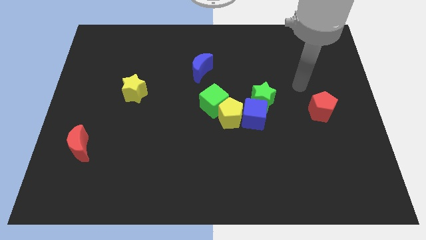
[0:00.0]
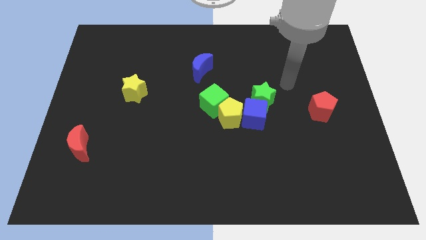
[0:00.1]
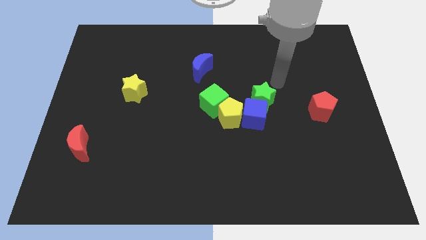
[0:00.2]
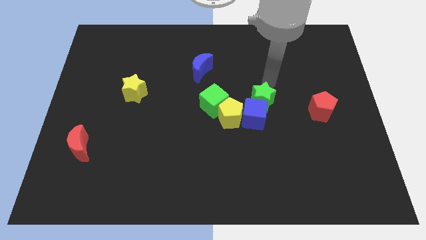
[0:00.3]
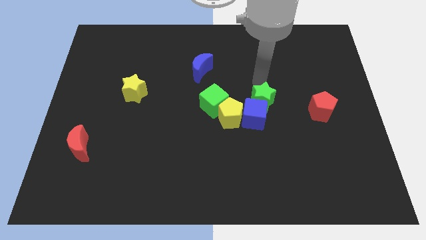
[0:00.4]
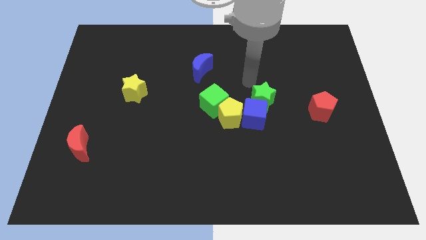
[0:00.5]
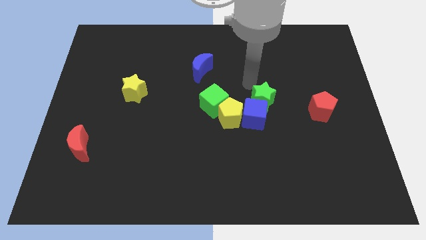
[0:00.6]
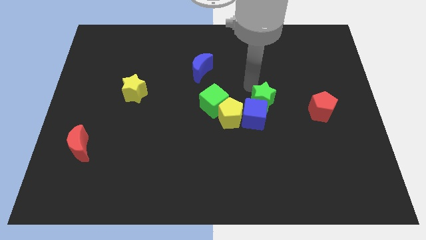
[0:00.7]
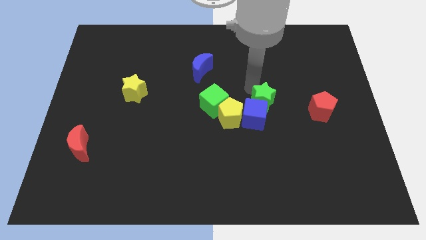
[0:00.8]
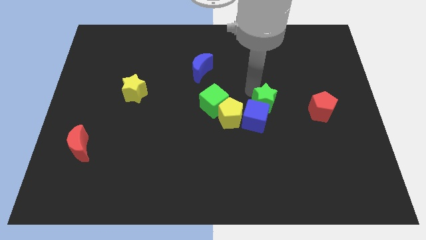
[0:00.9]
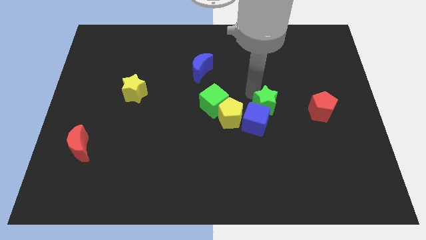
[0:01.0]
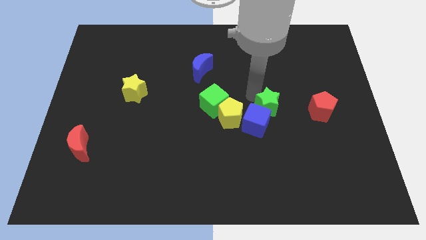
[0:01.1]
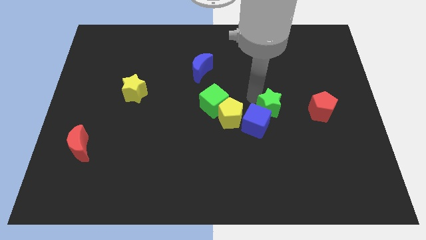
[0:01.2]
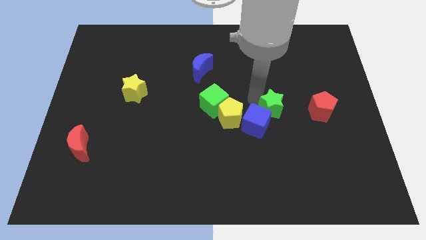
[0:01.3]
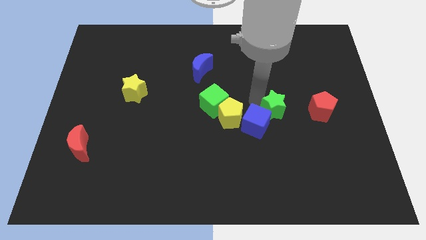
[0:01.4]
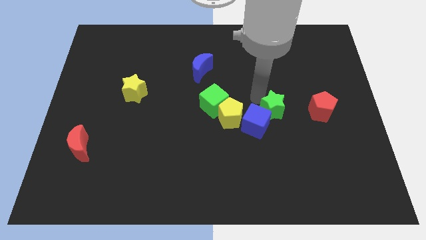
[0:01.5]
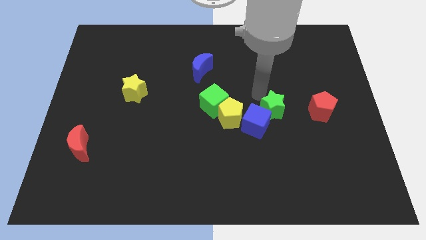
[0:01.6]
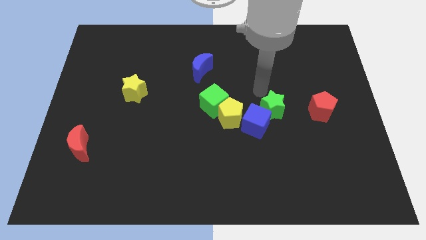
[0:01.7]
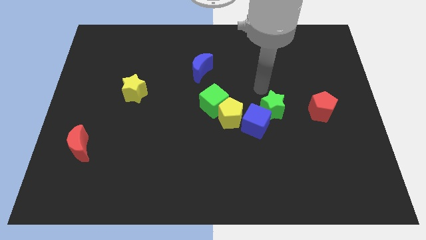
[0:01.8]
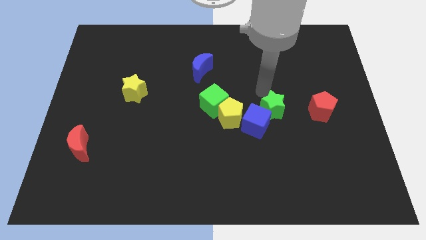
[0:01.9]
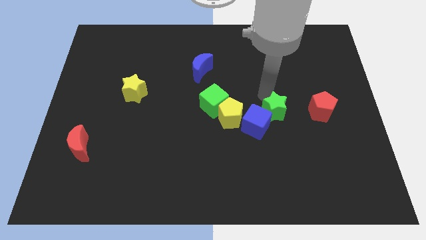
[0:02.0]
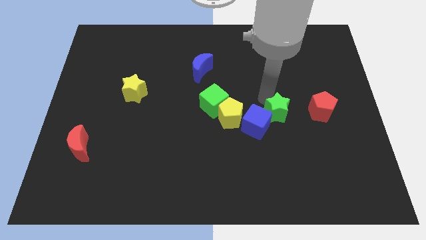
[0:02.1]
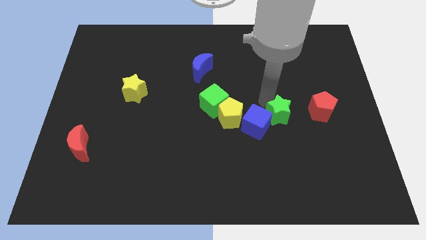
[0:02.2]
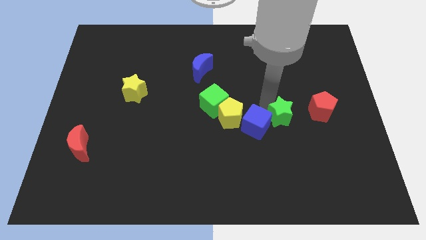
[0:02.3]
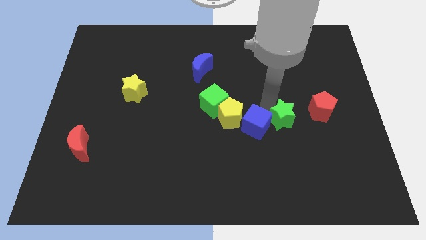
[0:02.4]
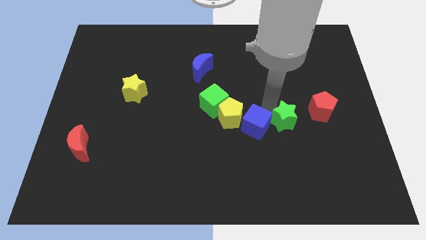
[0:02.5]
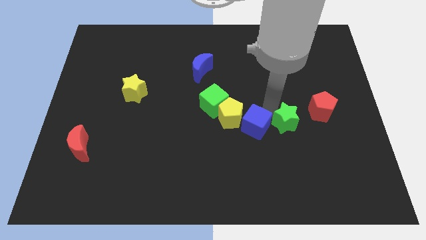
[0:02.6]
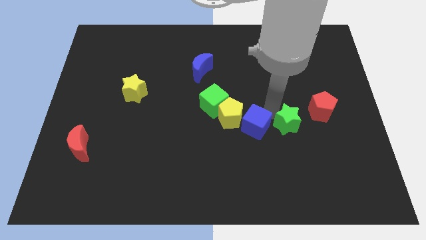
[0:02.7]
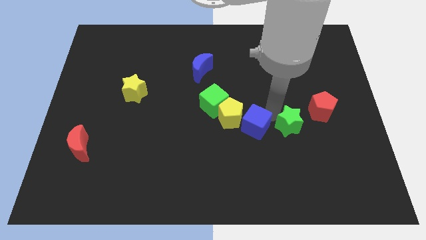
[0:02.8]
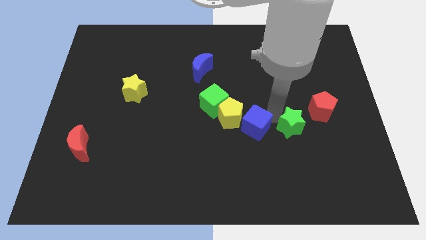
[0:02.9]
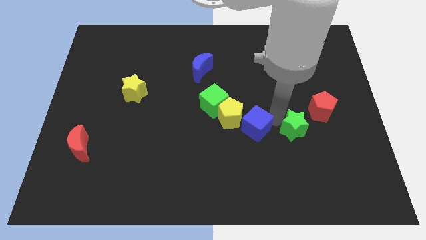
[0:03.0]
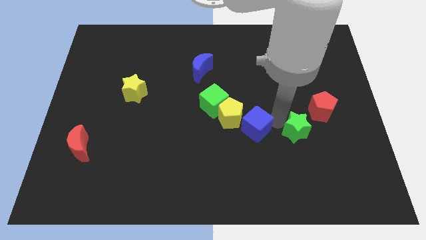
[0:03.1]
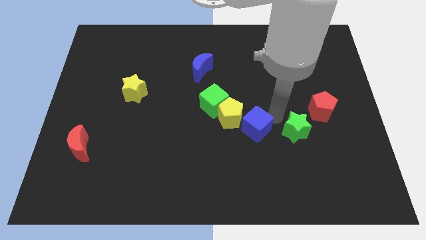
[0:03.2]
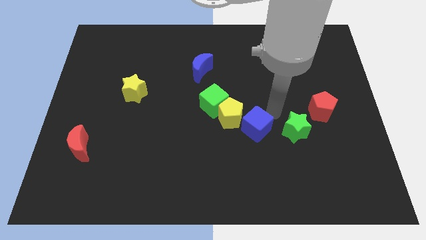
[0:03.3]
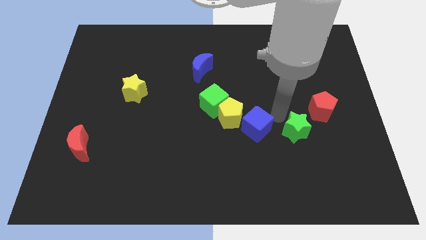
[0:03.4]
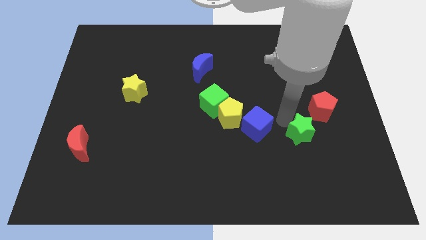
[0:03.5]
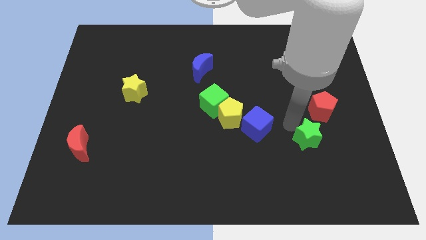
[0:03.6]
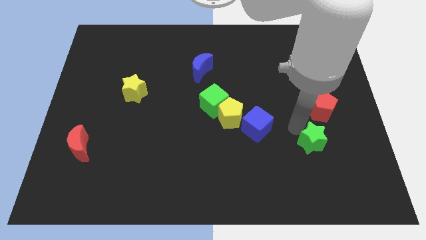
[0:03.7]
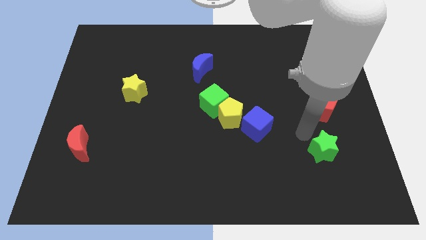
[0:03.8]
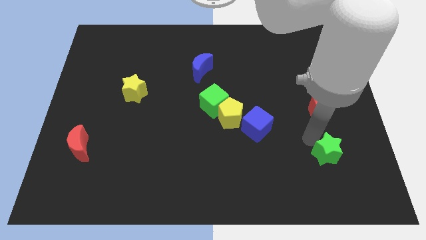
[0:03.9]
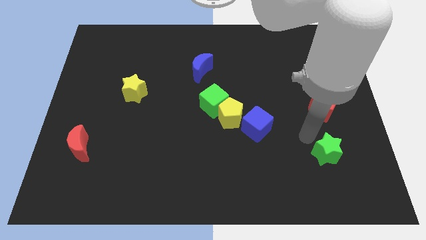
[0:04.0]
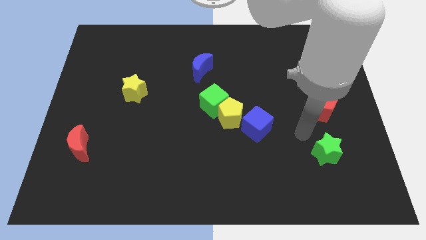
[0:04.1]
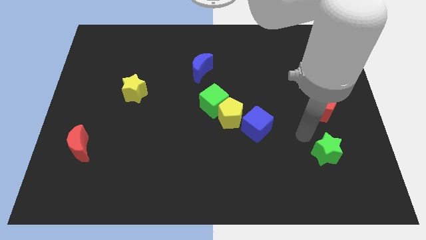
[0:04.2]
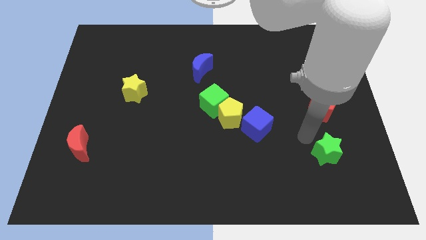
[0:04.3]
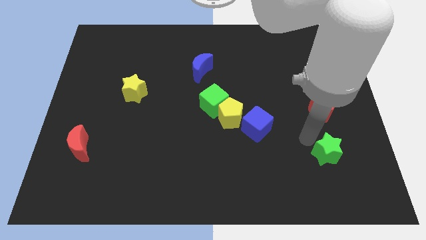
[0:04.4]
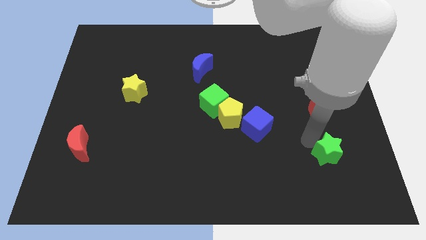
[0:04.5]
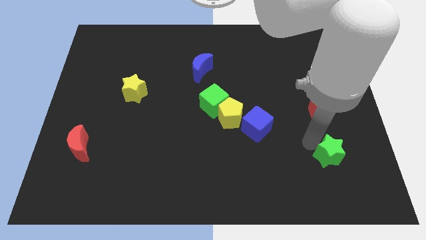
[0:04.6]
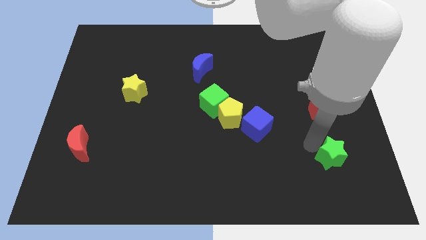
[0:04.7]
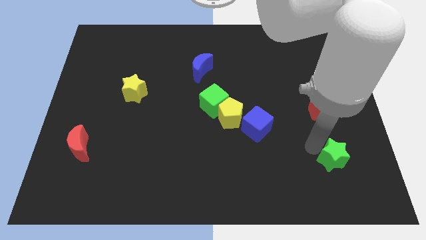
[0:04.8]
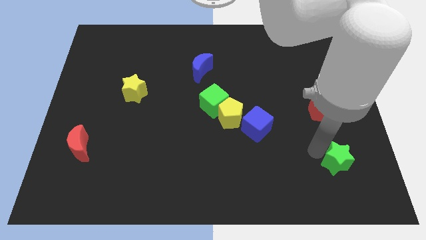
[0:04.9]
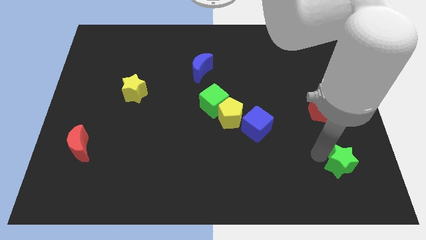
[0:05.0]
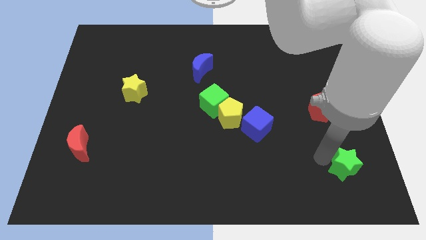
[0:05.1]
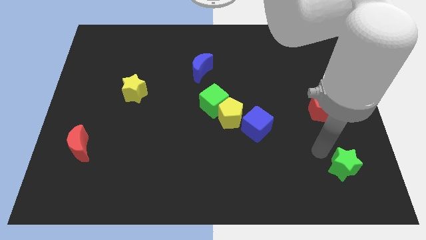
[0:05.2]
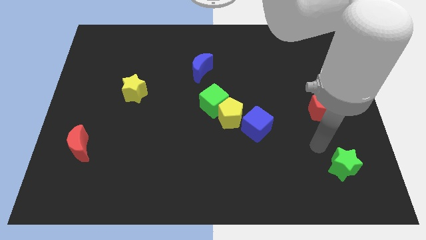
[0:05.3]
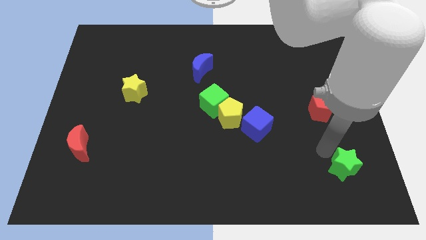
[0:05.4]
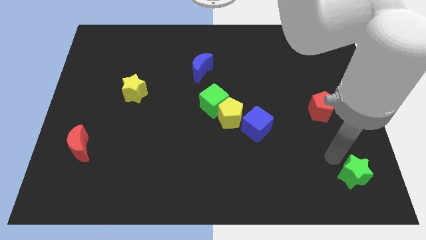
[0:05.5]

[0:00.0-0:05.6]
slide the green star to the lower right corner

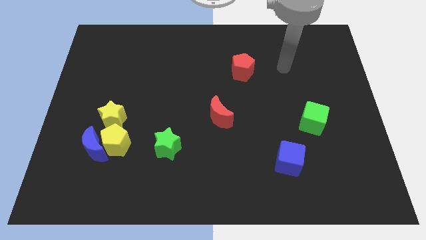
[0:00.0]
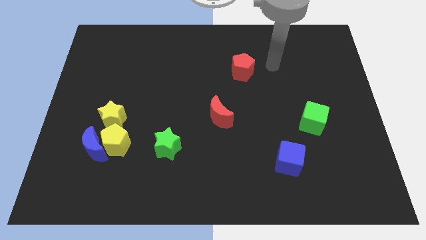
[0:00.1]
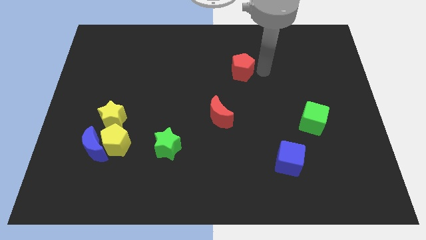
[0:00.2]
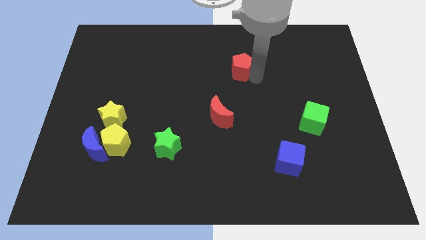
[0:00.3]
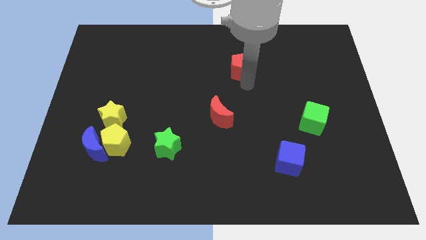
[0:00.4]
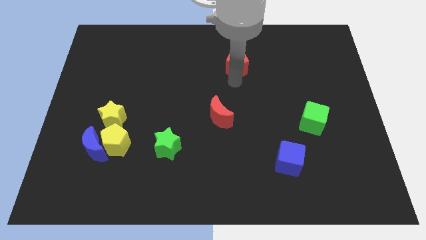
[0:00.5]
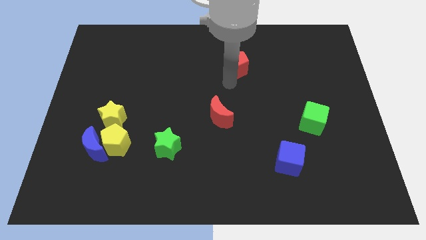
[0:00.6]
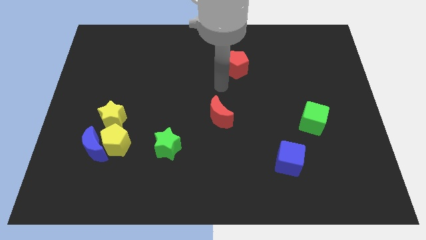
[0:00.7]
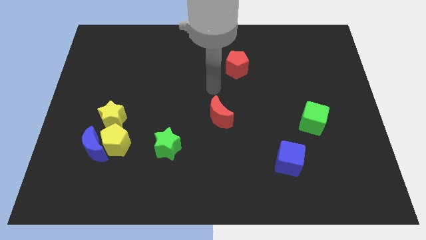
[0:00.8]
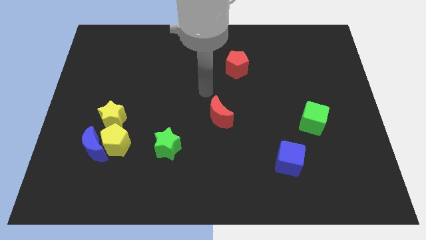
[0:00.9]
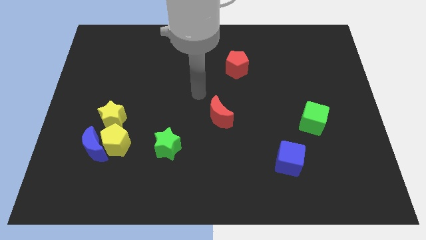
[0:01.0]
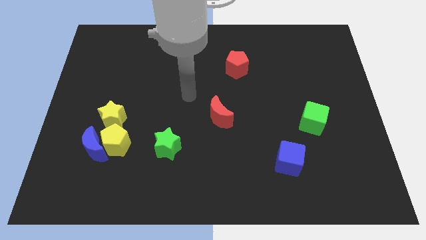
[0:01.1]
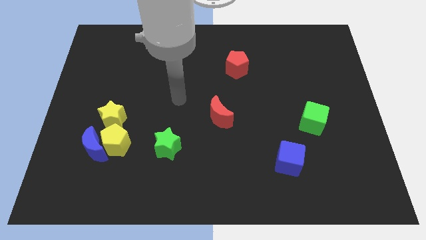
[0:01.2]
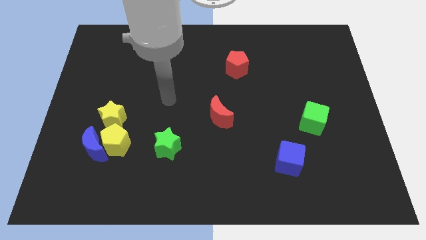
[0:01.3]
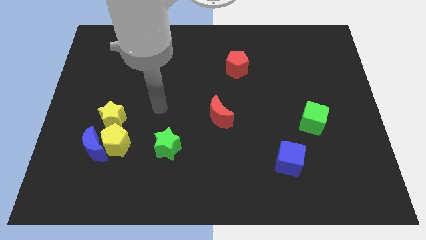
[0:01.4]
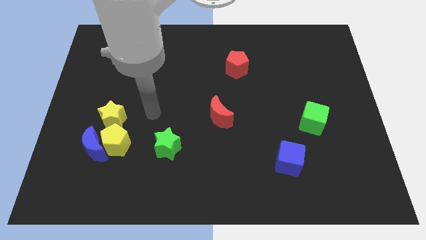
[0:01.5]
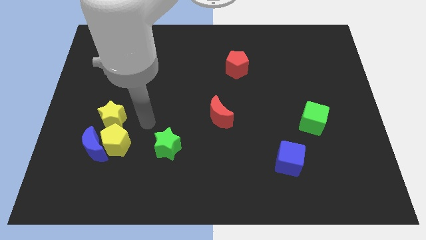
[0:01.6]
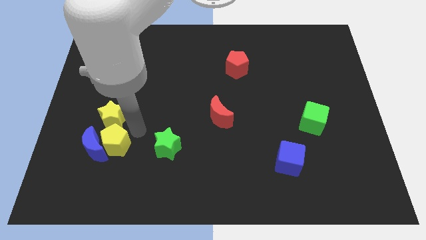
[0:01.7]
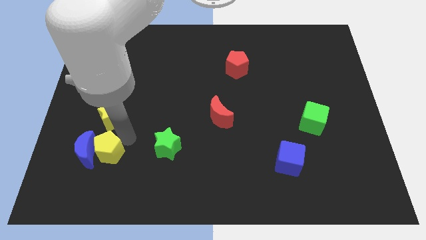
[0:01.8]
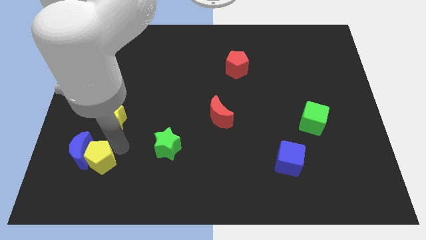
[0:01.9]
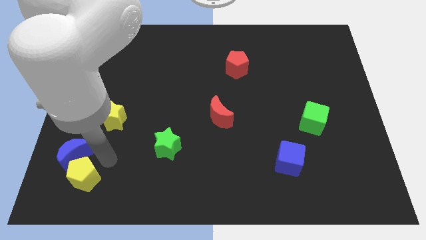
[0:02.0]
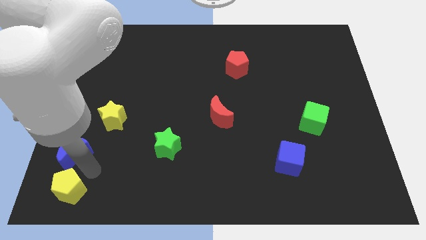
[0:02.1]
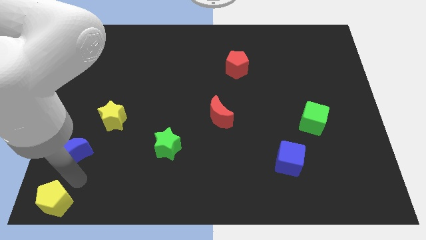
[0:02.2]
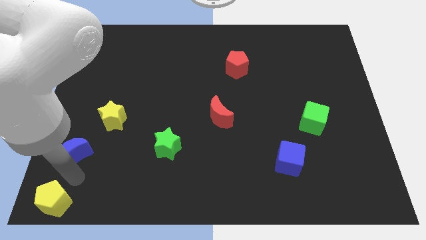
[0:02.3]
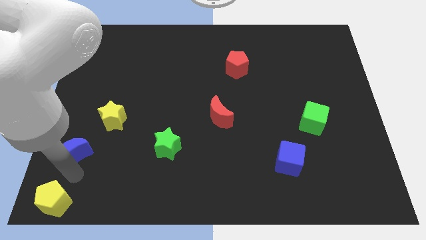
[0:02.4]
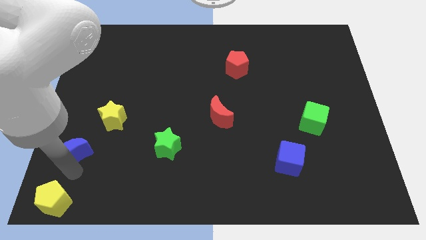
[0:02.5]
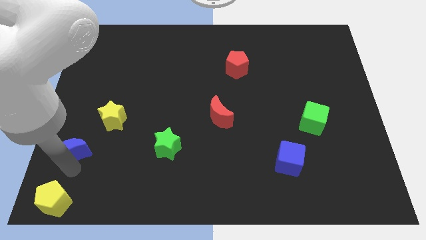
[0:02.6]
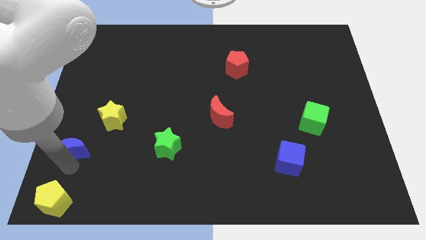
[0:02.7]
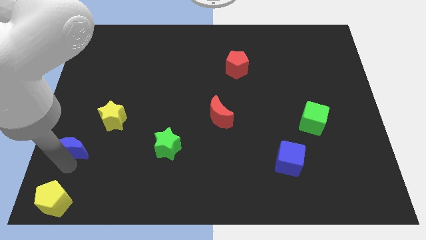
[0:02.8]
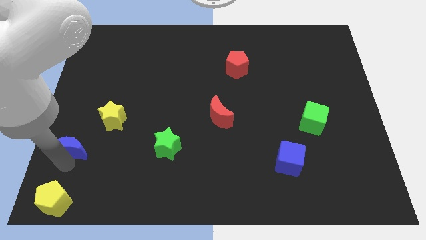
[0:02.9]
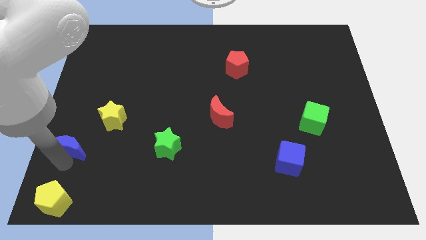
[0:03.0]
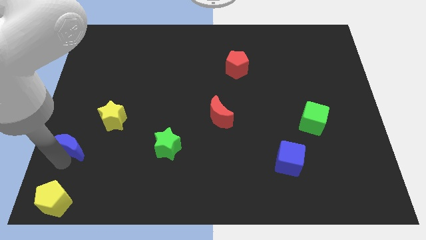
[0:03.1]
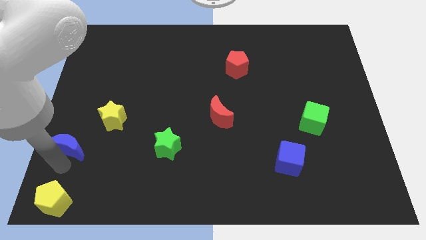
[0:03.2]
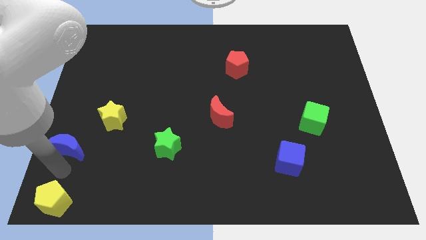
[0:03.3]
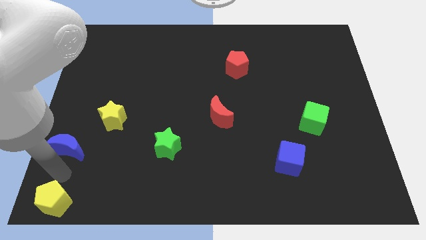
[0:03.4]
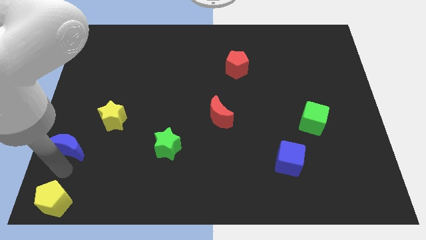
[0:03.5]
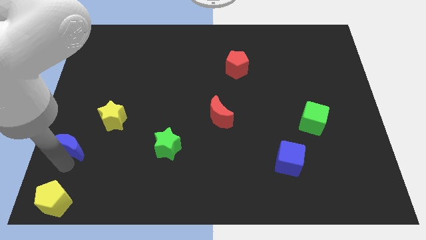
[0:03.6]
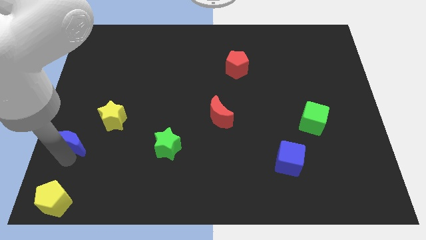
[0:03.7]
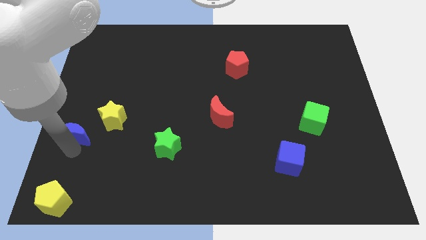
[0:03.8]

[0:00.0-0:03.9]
move the blue moon to the left side
